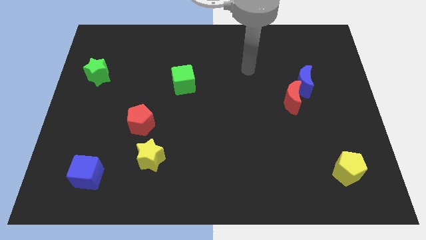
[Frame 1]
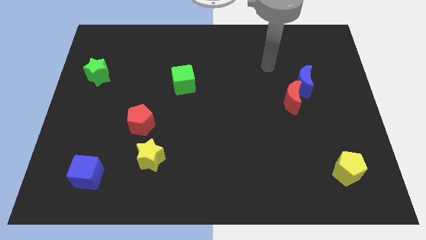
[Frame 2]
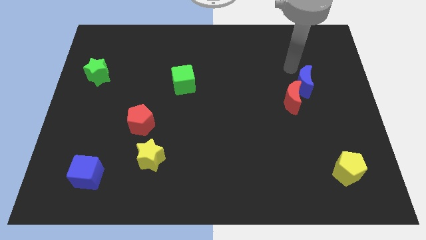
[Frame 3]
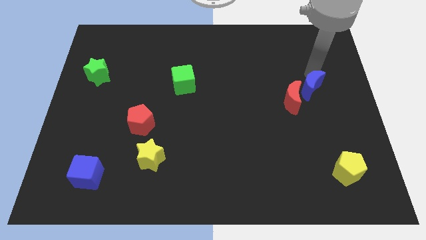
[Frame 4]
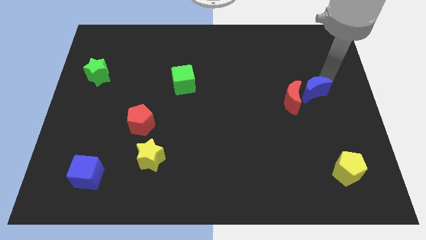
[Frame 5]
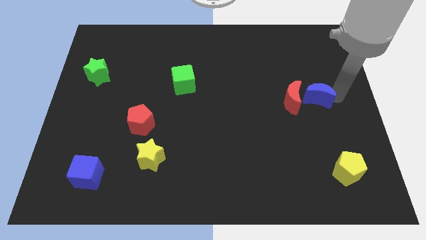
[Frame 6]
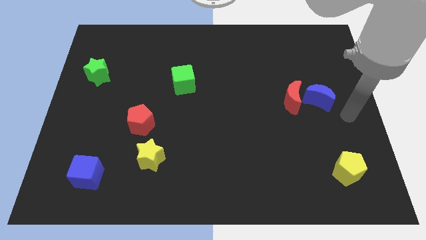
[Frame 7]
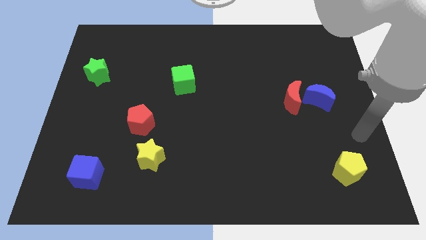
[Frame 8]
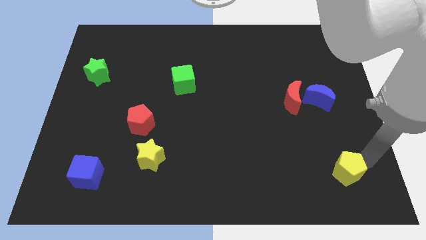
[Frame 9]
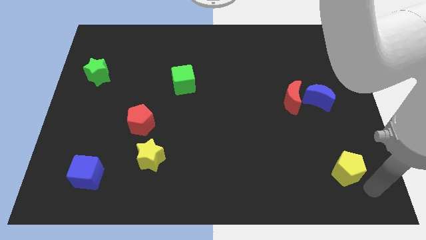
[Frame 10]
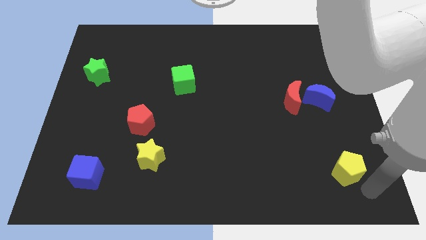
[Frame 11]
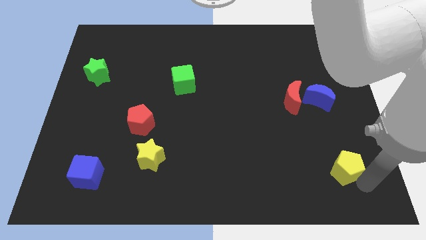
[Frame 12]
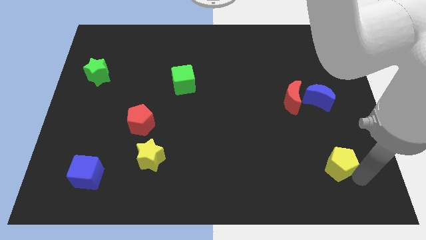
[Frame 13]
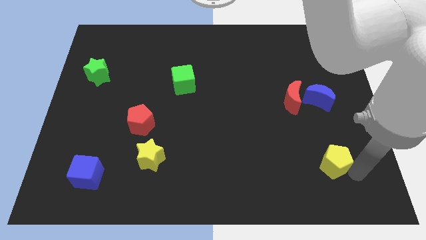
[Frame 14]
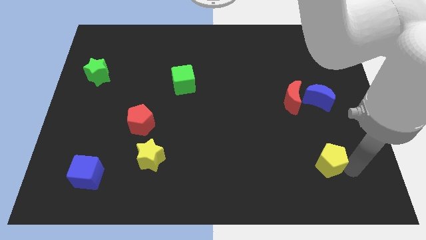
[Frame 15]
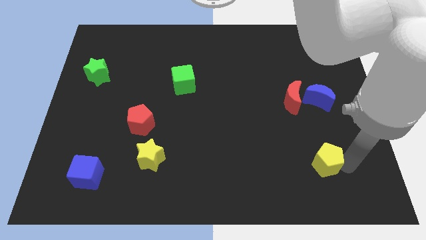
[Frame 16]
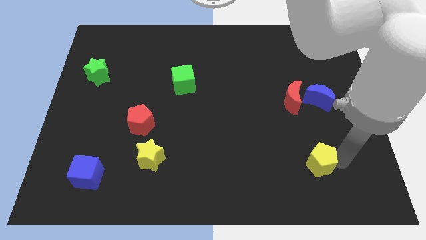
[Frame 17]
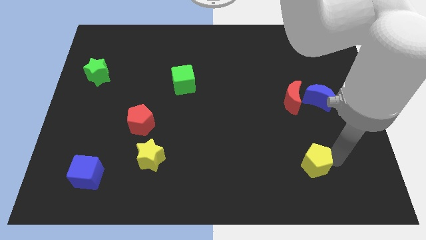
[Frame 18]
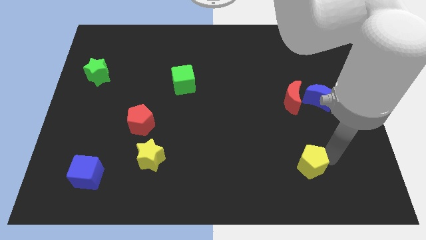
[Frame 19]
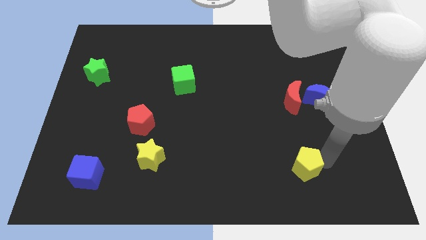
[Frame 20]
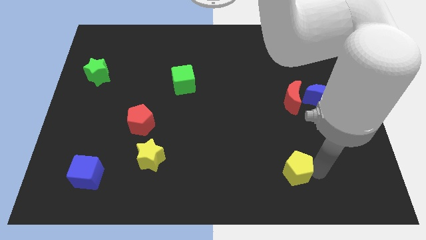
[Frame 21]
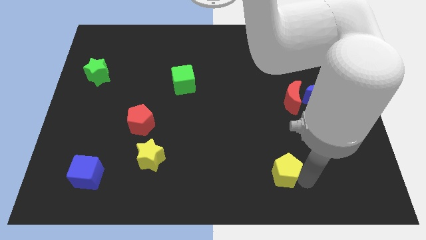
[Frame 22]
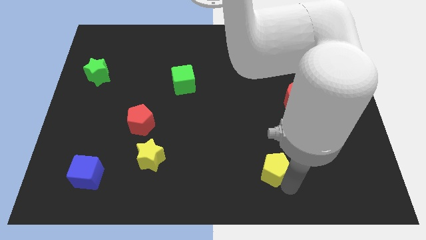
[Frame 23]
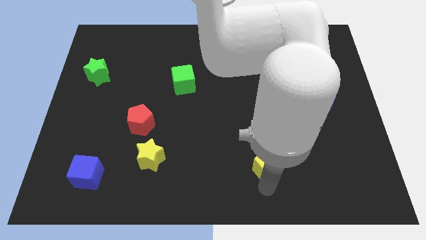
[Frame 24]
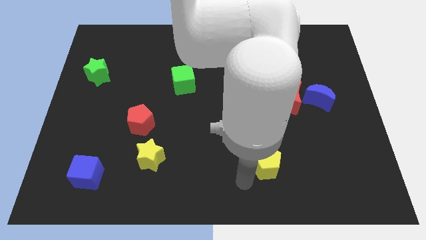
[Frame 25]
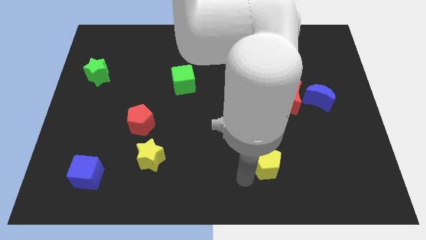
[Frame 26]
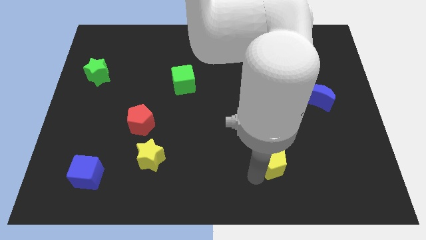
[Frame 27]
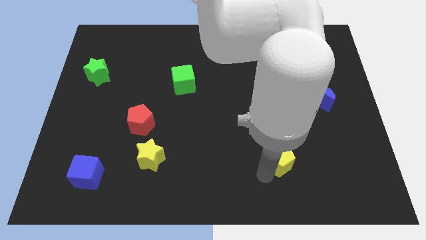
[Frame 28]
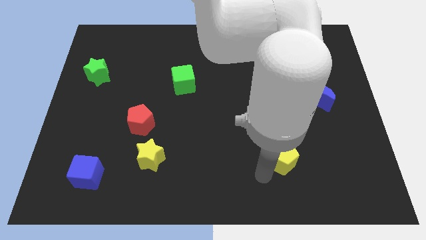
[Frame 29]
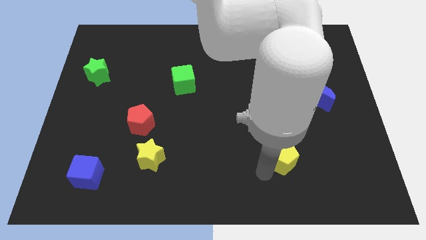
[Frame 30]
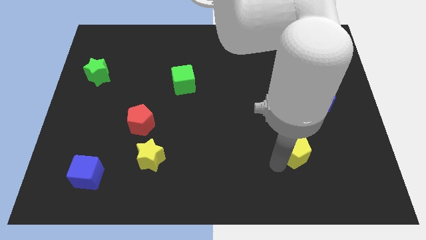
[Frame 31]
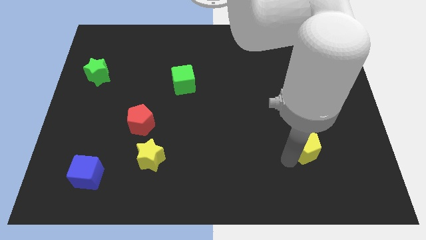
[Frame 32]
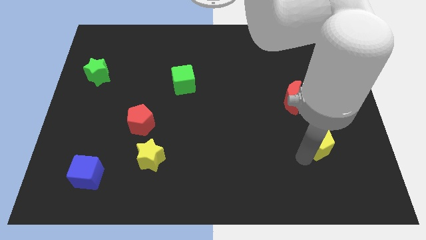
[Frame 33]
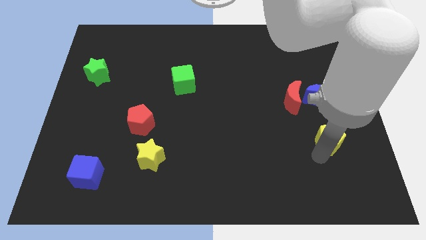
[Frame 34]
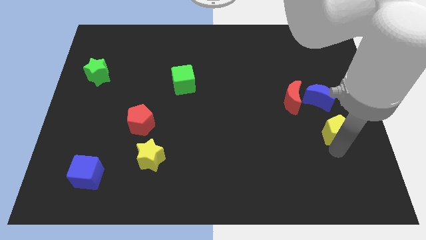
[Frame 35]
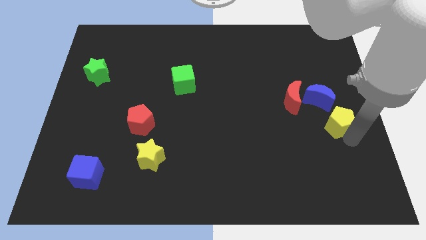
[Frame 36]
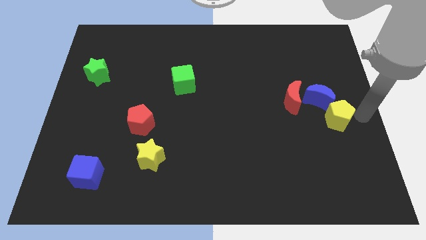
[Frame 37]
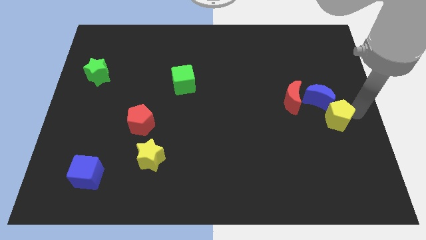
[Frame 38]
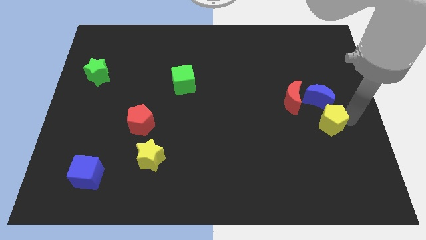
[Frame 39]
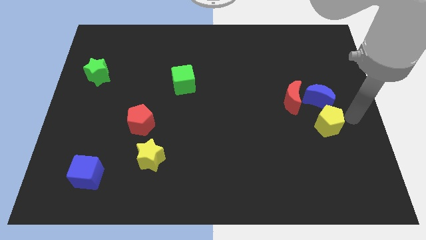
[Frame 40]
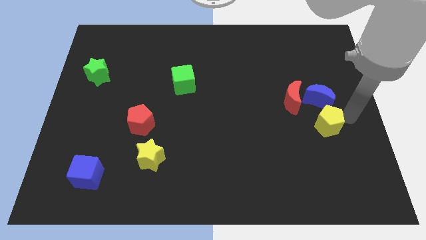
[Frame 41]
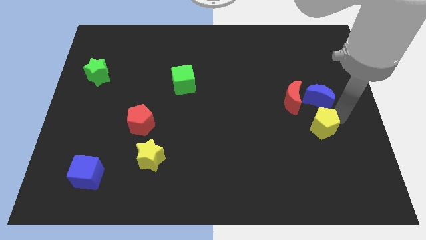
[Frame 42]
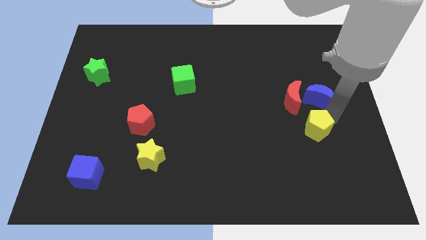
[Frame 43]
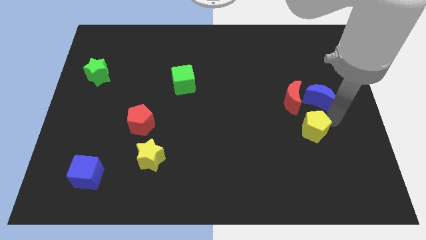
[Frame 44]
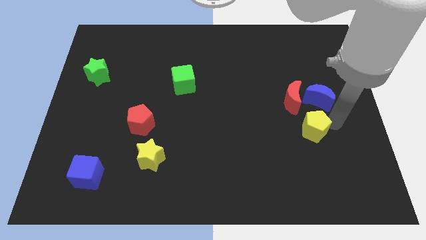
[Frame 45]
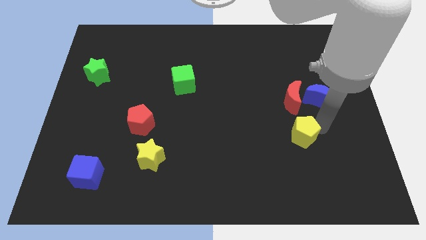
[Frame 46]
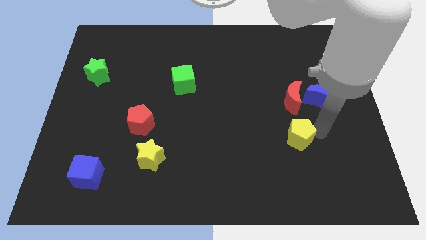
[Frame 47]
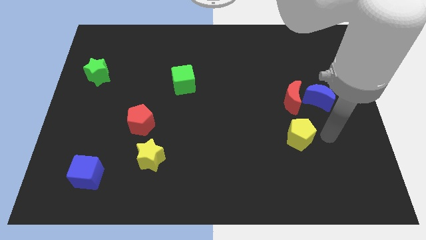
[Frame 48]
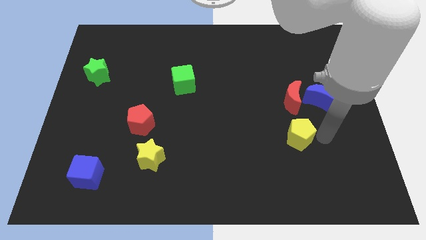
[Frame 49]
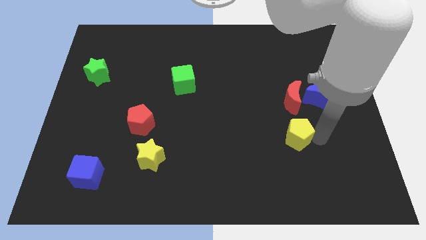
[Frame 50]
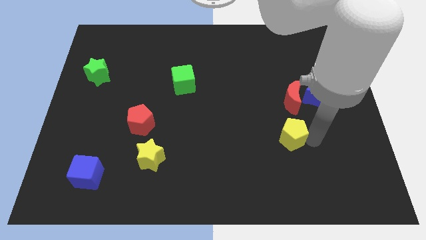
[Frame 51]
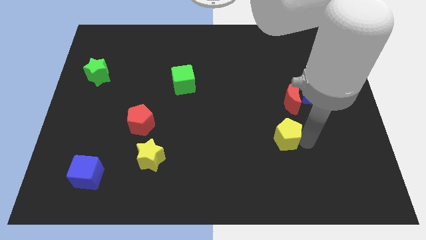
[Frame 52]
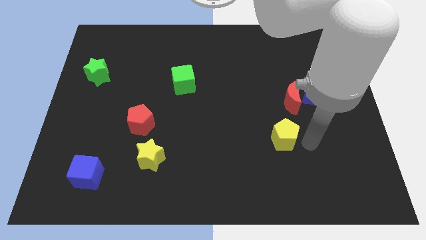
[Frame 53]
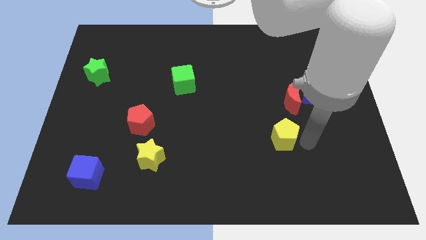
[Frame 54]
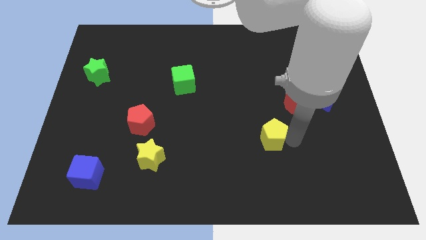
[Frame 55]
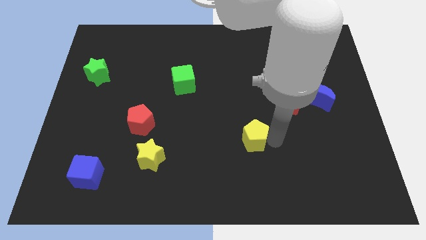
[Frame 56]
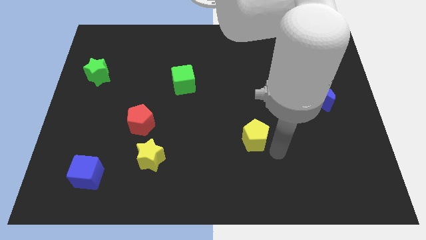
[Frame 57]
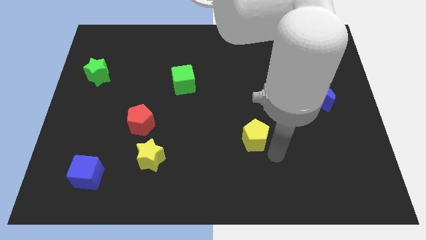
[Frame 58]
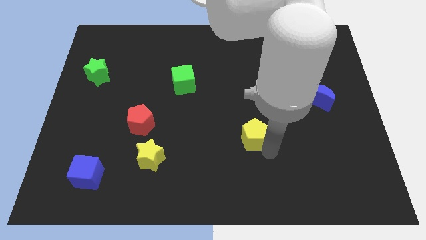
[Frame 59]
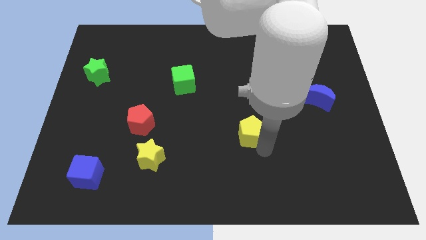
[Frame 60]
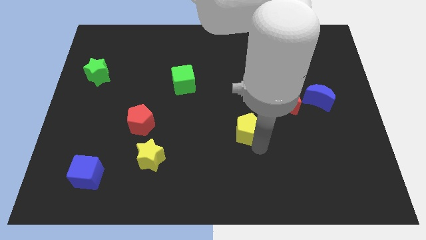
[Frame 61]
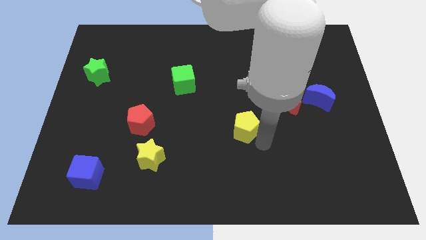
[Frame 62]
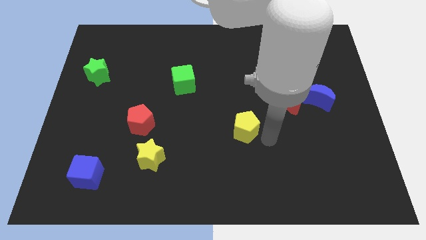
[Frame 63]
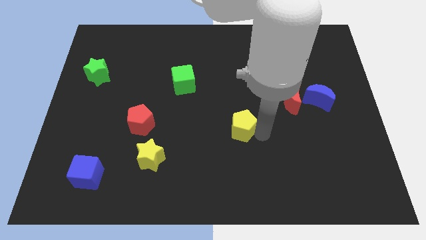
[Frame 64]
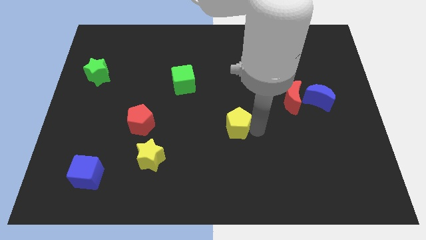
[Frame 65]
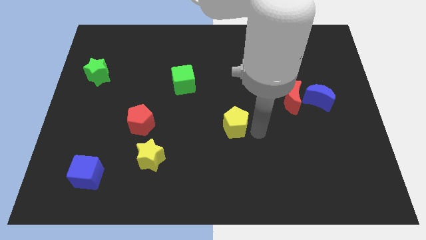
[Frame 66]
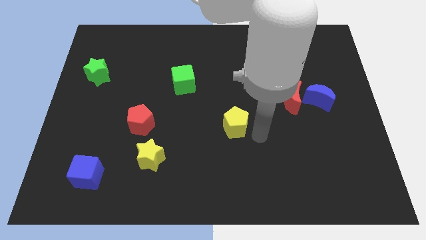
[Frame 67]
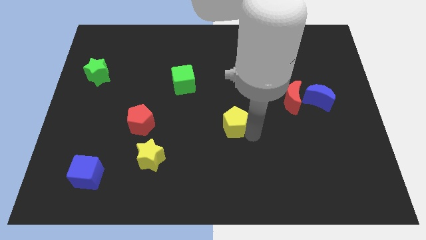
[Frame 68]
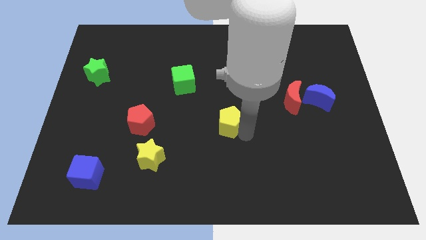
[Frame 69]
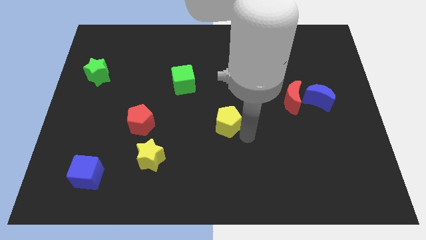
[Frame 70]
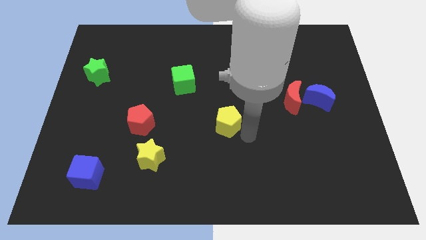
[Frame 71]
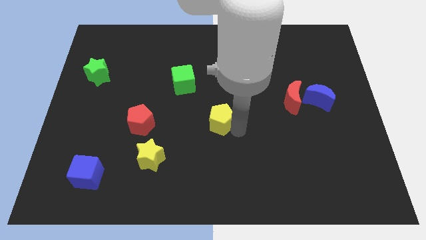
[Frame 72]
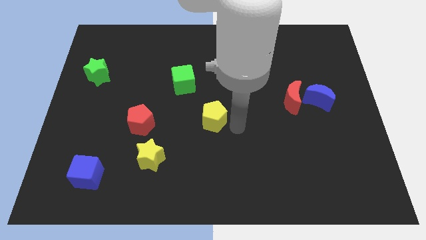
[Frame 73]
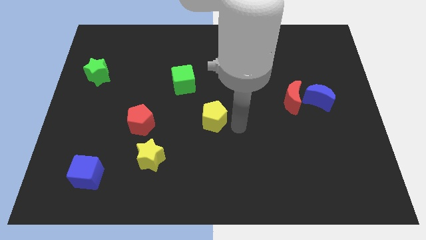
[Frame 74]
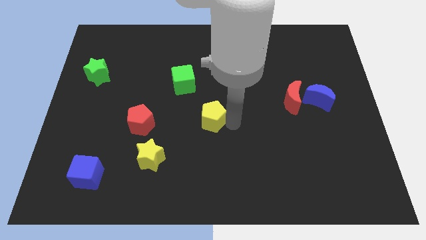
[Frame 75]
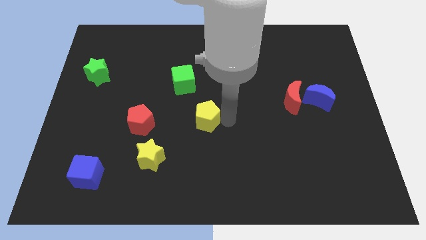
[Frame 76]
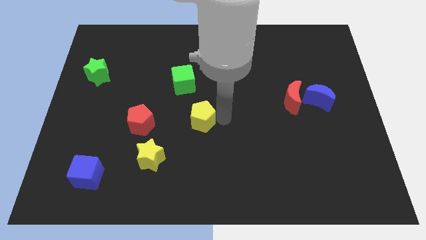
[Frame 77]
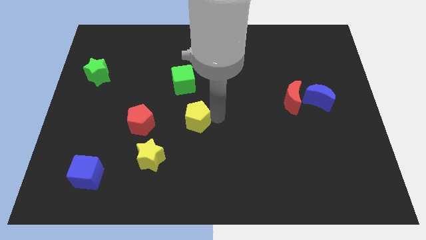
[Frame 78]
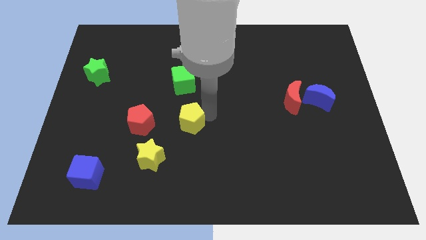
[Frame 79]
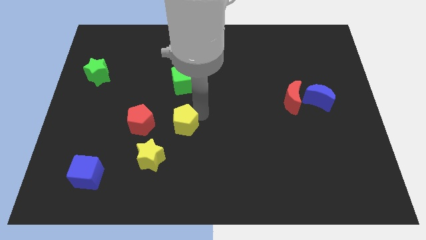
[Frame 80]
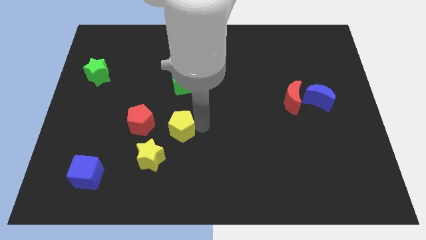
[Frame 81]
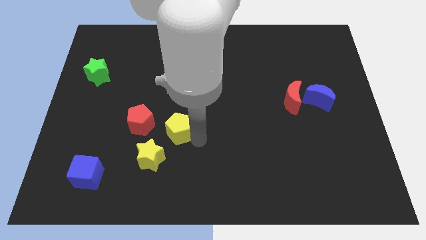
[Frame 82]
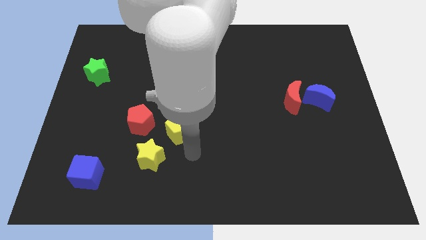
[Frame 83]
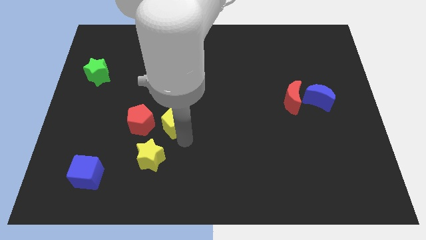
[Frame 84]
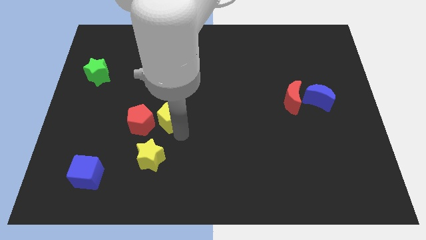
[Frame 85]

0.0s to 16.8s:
slide the yellow pentagon to the top right side of the red pentagon
